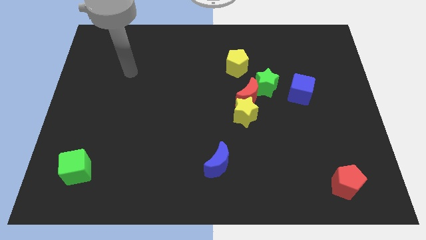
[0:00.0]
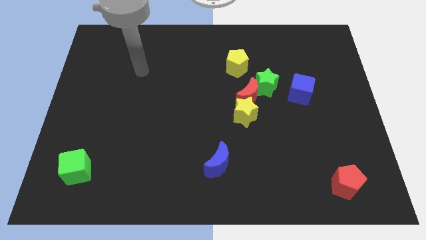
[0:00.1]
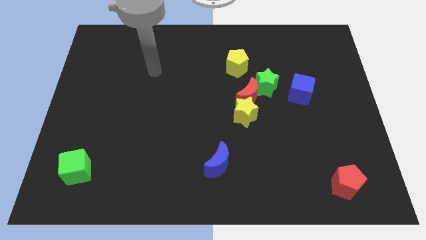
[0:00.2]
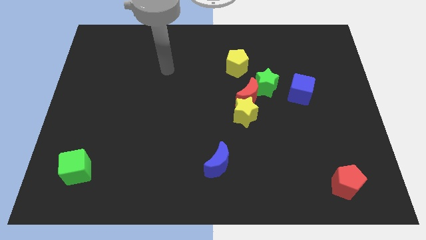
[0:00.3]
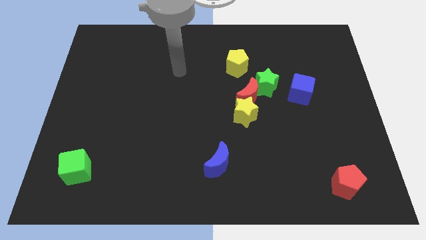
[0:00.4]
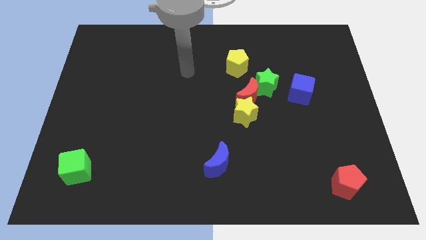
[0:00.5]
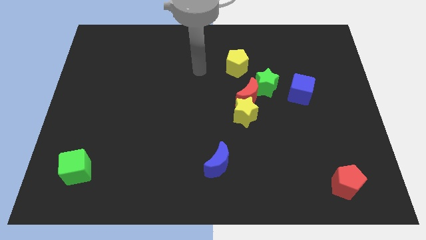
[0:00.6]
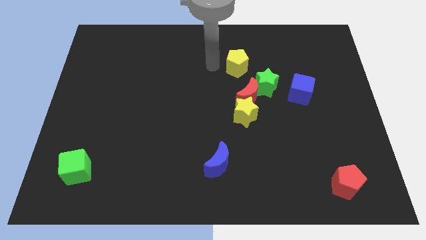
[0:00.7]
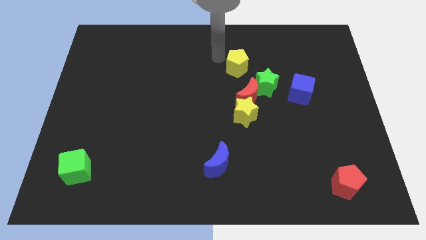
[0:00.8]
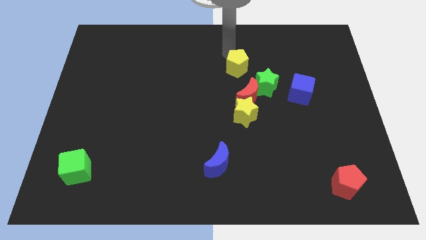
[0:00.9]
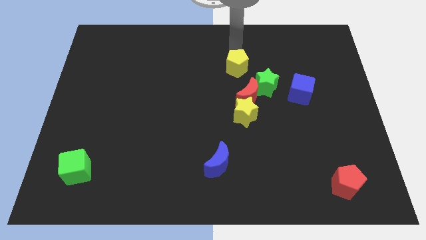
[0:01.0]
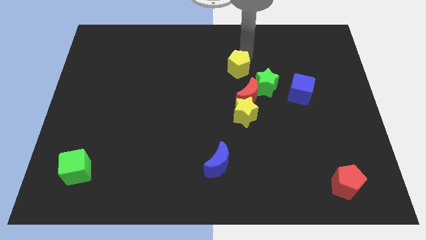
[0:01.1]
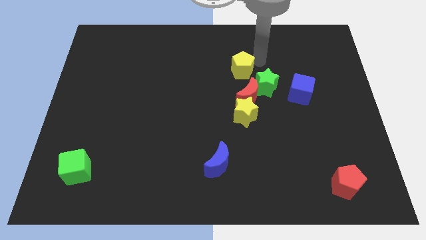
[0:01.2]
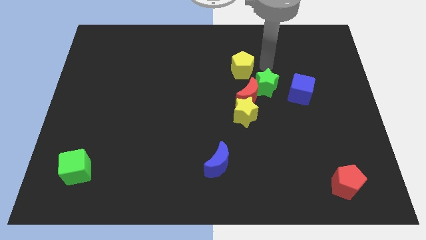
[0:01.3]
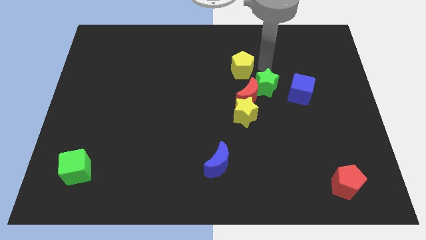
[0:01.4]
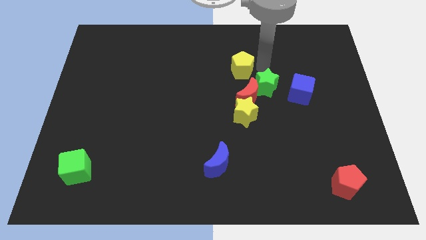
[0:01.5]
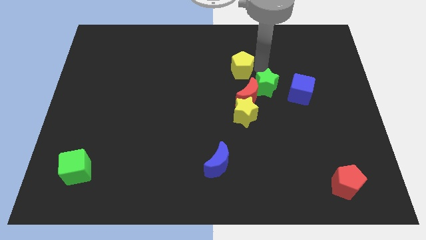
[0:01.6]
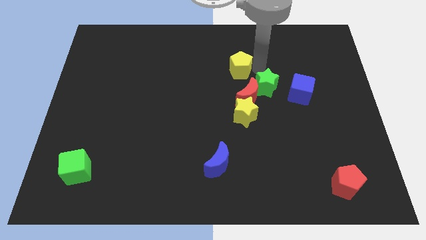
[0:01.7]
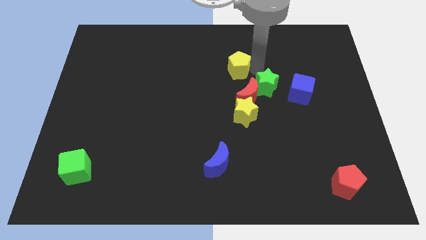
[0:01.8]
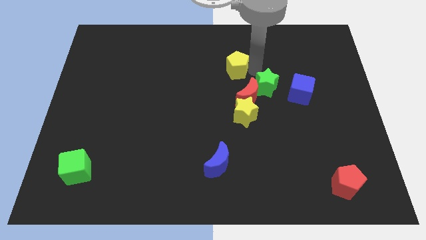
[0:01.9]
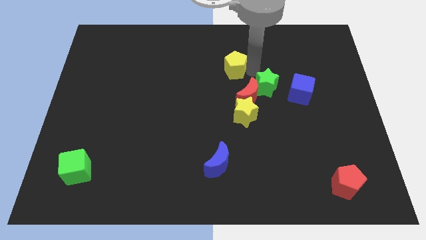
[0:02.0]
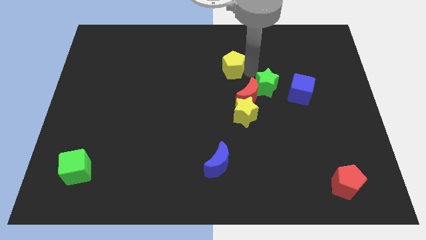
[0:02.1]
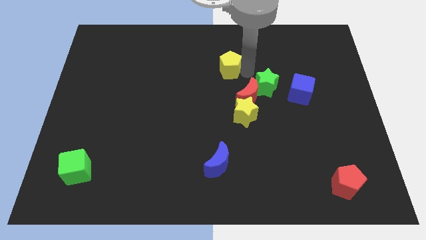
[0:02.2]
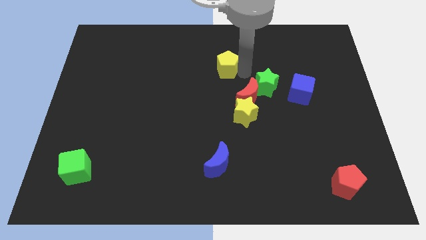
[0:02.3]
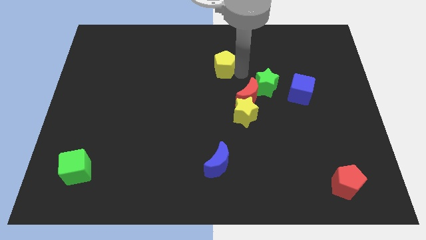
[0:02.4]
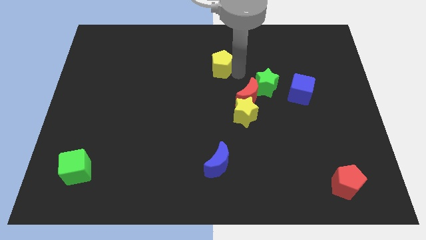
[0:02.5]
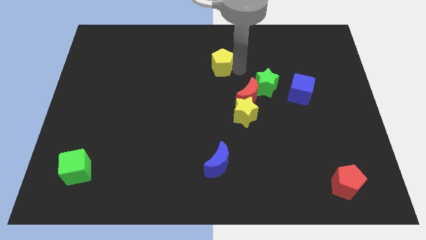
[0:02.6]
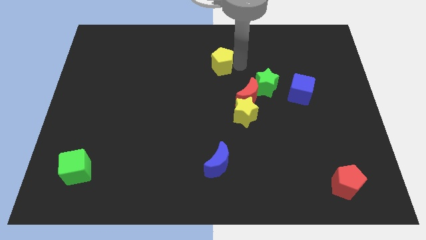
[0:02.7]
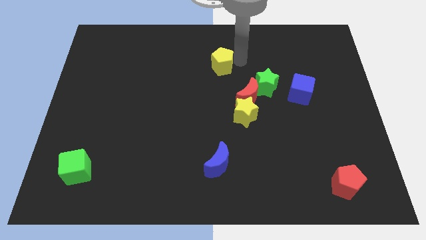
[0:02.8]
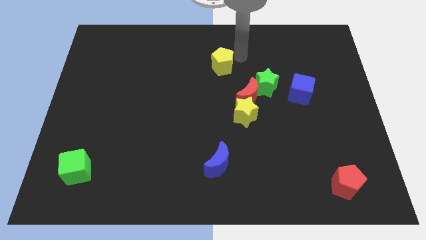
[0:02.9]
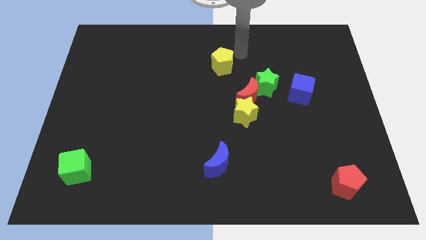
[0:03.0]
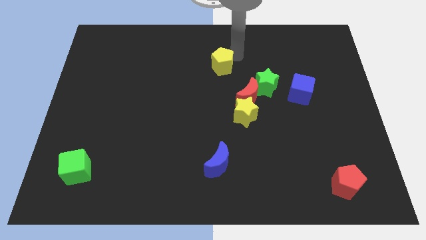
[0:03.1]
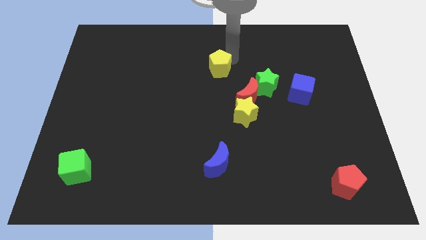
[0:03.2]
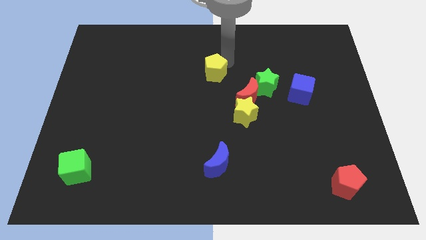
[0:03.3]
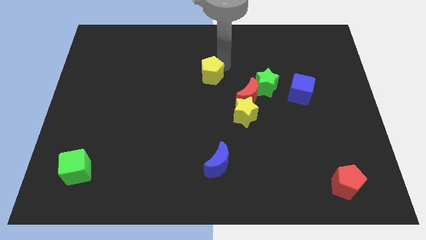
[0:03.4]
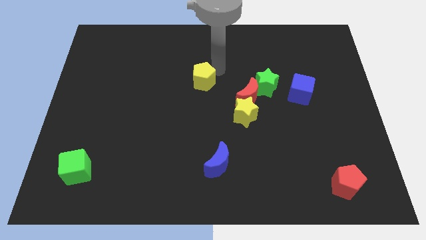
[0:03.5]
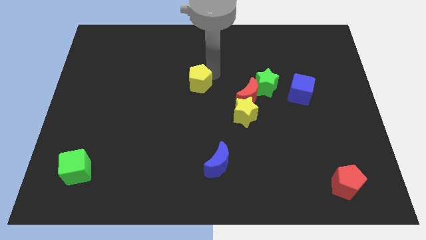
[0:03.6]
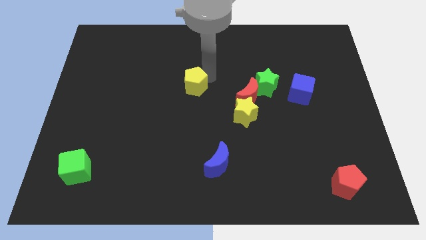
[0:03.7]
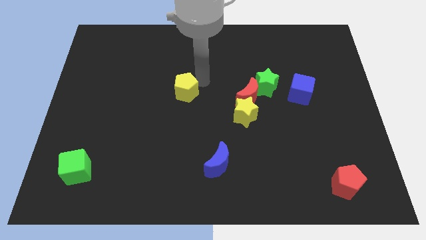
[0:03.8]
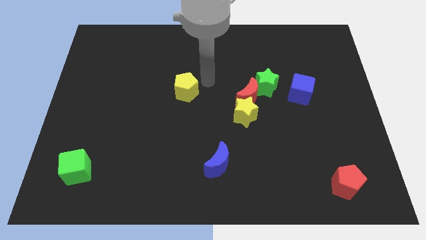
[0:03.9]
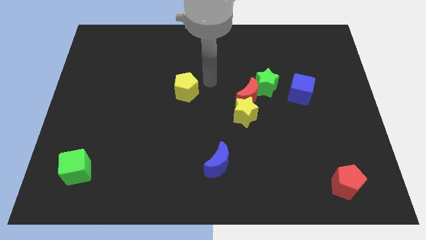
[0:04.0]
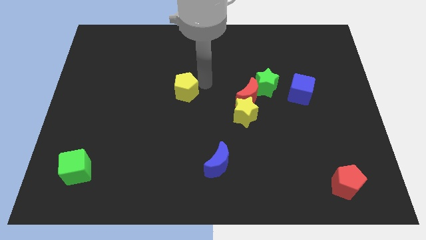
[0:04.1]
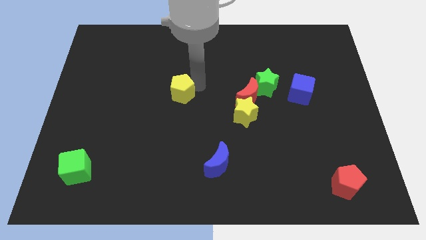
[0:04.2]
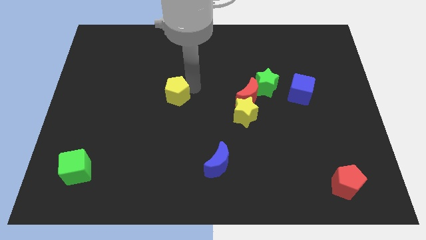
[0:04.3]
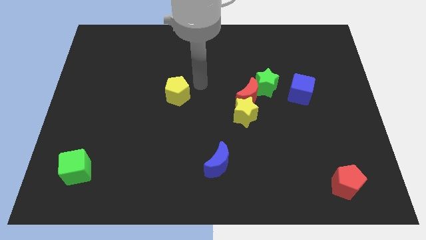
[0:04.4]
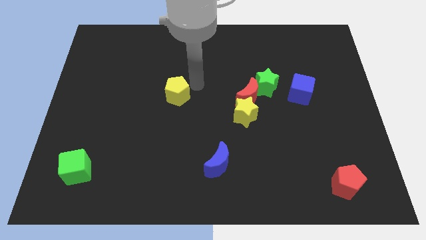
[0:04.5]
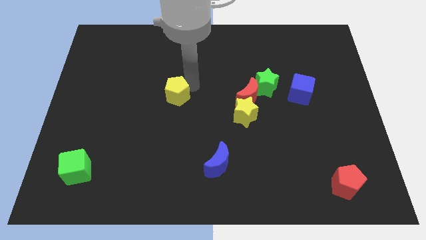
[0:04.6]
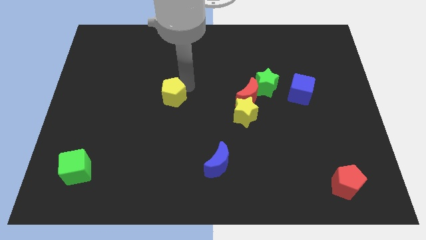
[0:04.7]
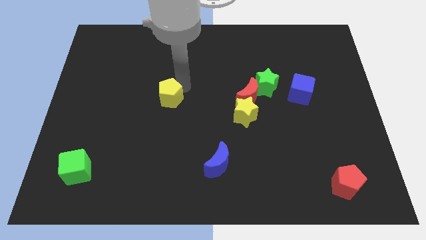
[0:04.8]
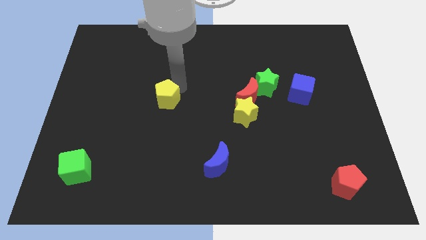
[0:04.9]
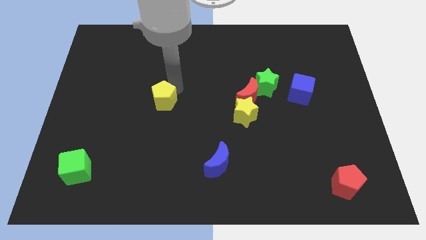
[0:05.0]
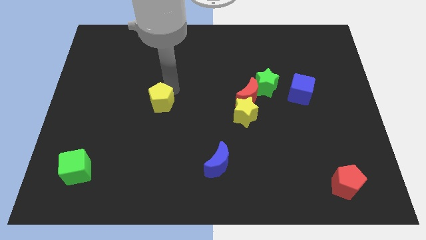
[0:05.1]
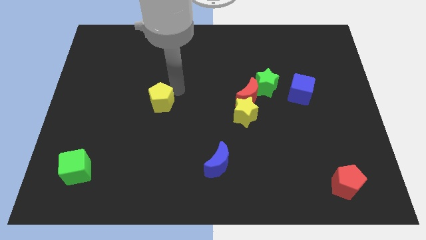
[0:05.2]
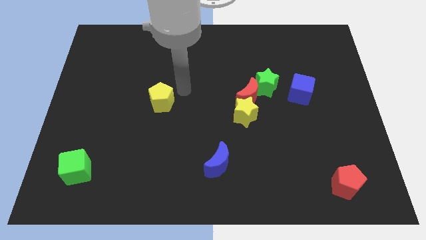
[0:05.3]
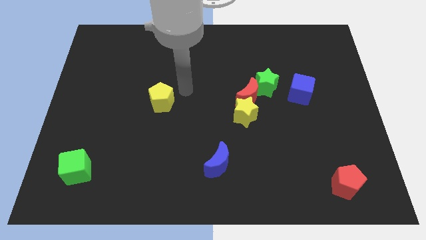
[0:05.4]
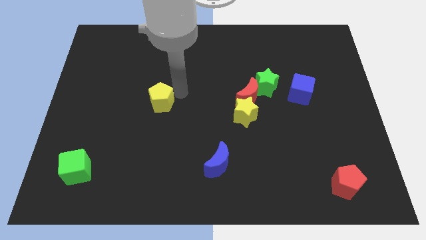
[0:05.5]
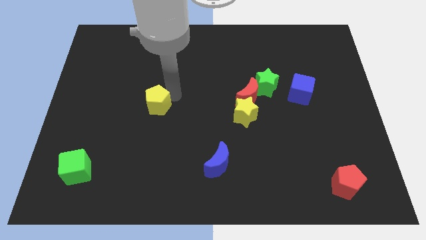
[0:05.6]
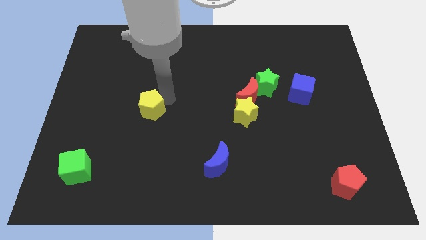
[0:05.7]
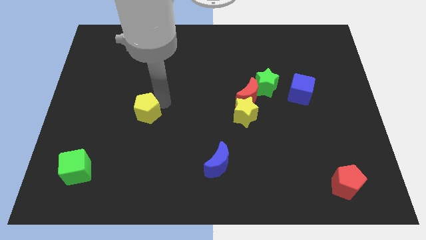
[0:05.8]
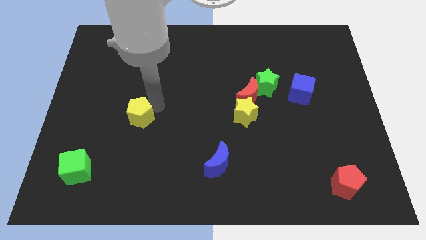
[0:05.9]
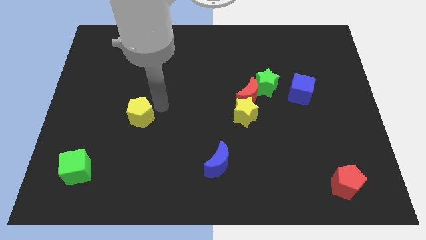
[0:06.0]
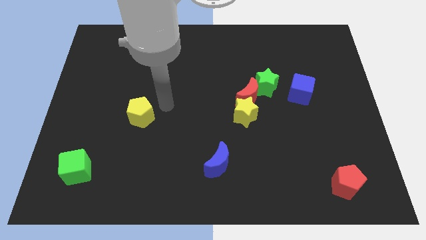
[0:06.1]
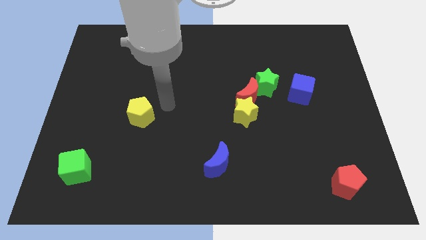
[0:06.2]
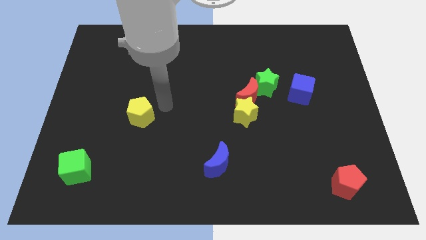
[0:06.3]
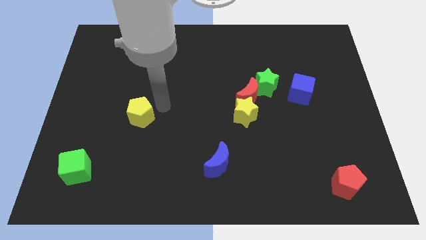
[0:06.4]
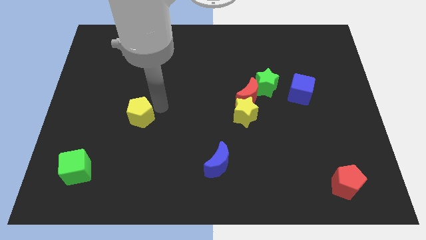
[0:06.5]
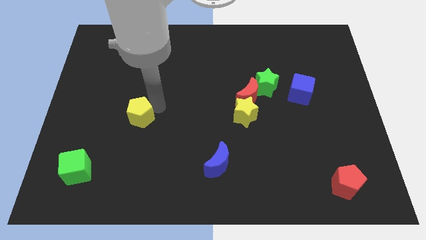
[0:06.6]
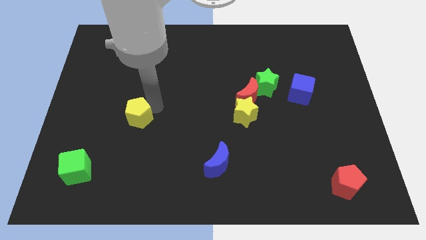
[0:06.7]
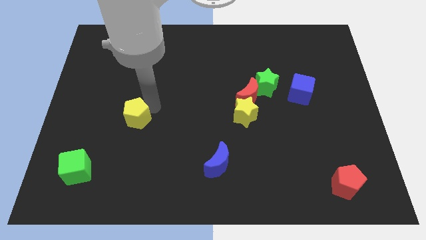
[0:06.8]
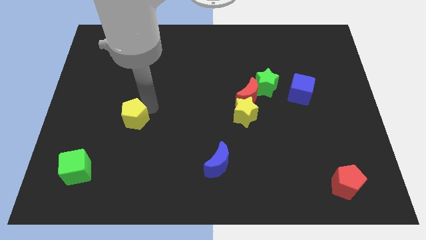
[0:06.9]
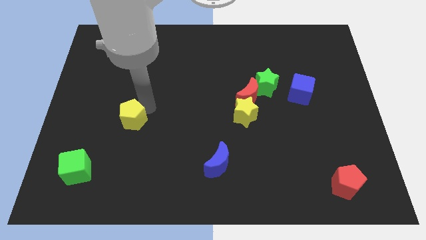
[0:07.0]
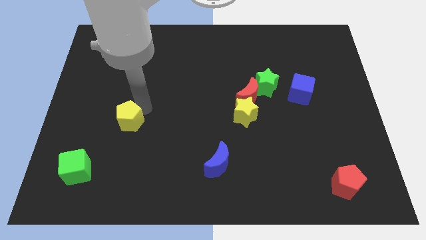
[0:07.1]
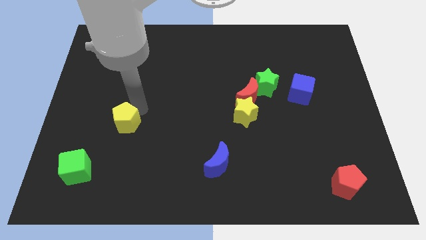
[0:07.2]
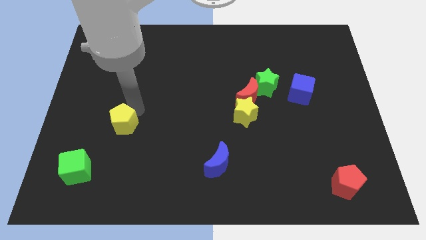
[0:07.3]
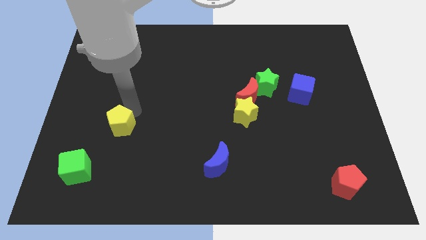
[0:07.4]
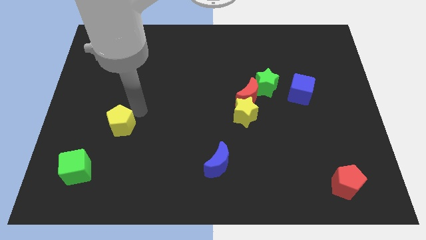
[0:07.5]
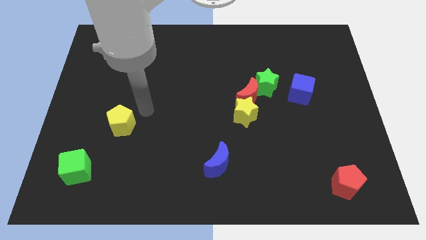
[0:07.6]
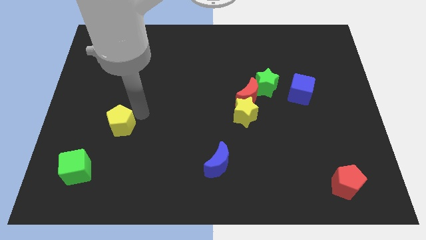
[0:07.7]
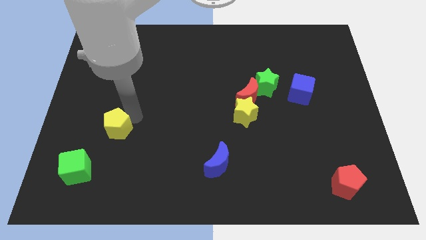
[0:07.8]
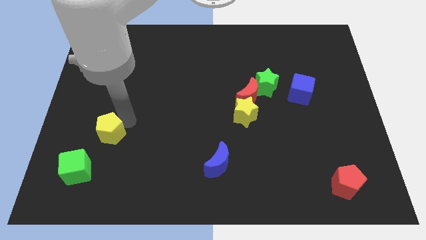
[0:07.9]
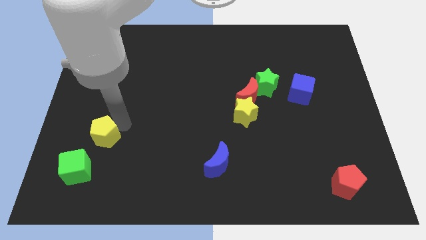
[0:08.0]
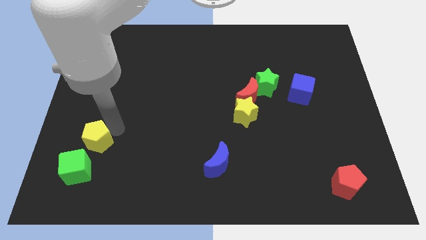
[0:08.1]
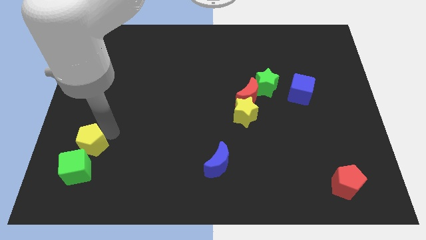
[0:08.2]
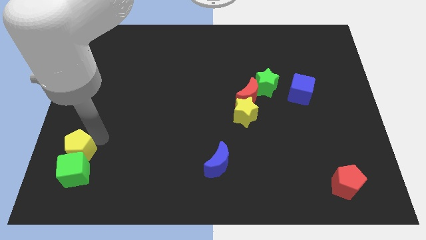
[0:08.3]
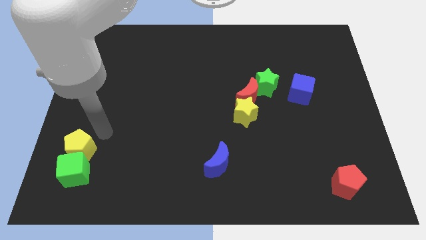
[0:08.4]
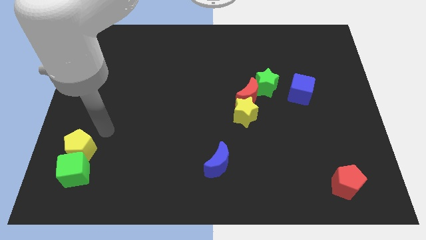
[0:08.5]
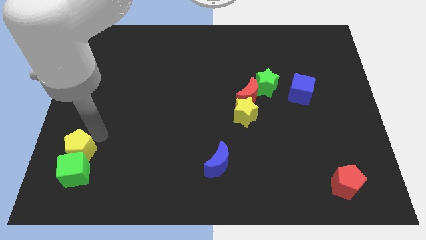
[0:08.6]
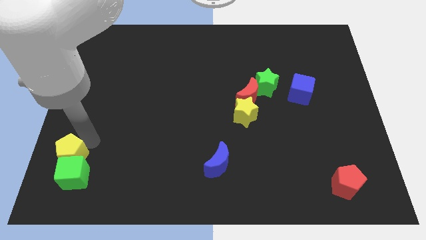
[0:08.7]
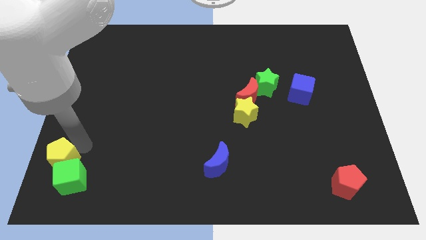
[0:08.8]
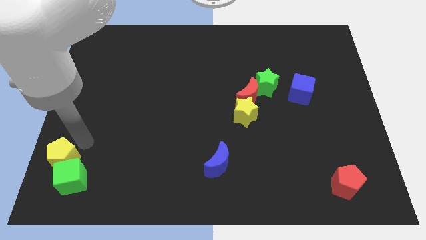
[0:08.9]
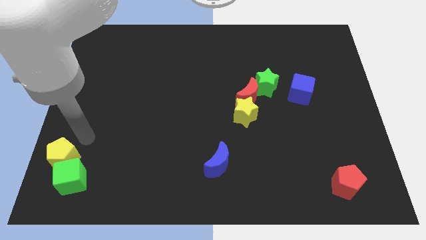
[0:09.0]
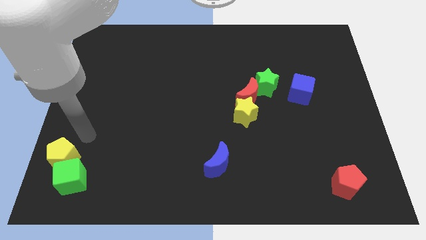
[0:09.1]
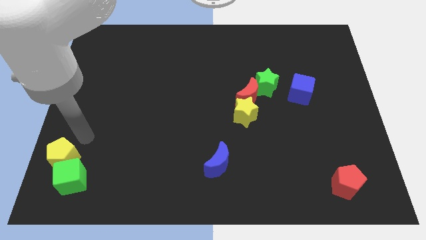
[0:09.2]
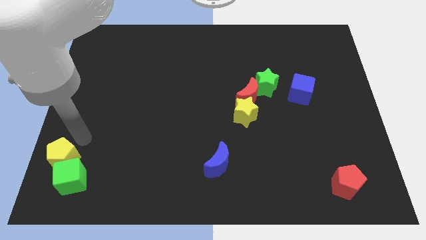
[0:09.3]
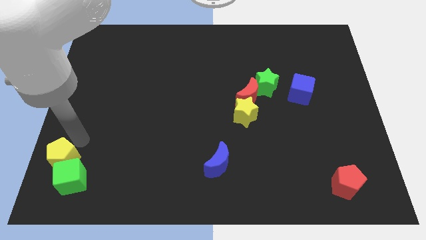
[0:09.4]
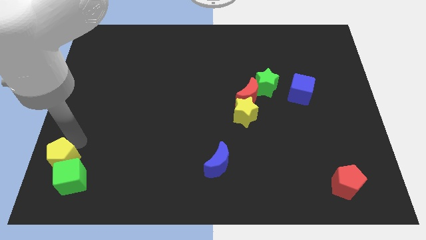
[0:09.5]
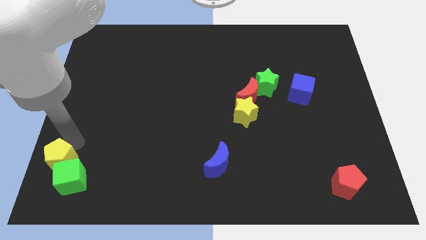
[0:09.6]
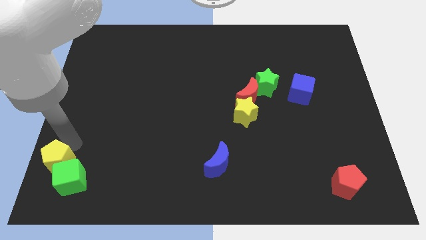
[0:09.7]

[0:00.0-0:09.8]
slide the yellow pentagon to the bottom left of the board
